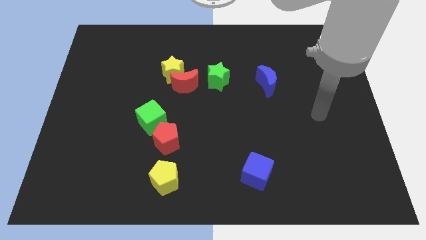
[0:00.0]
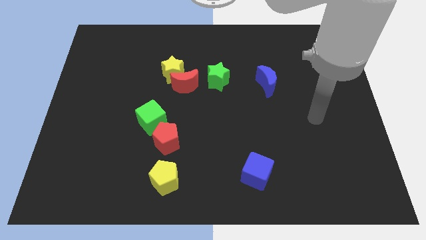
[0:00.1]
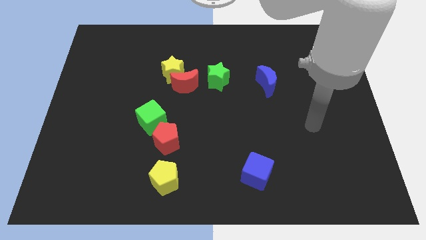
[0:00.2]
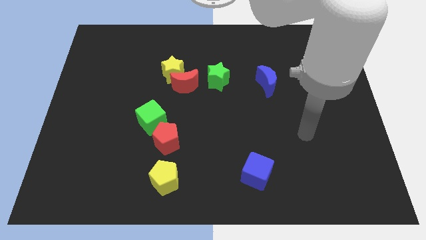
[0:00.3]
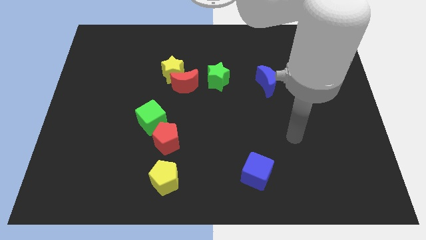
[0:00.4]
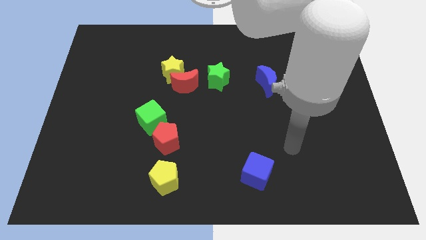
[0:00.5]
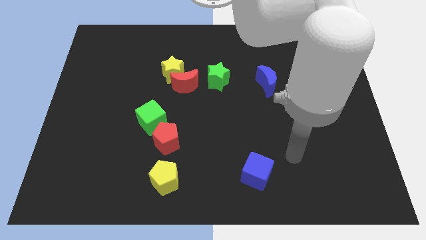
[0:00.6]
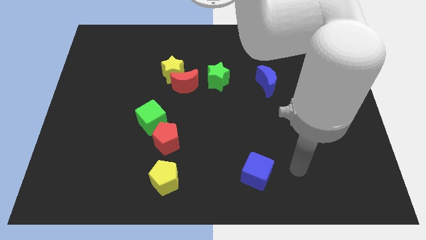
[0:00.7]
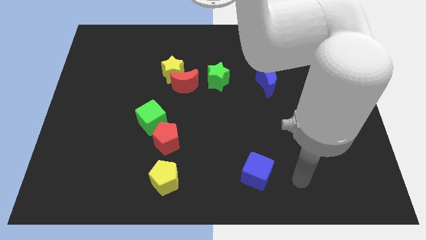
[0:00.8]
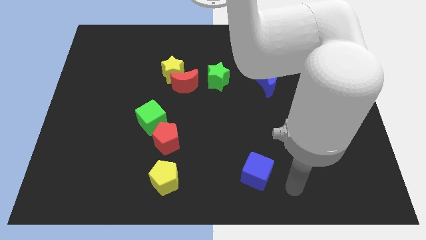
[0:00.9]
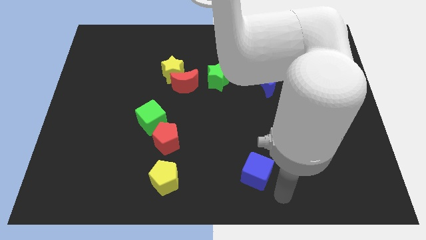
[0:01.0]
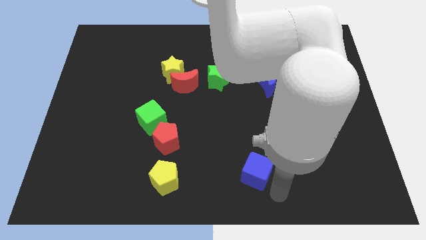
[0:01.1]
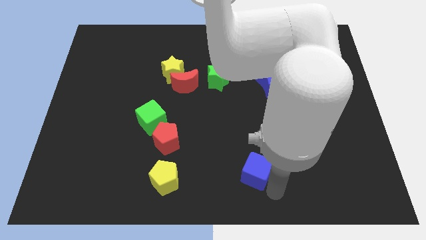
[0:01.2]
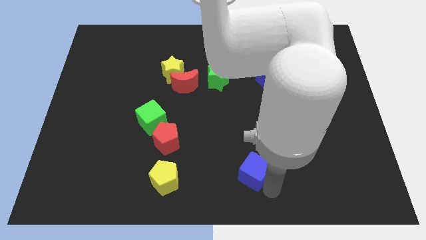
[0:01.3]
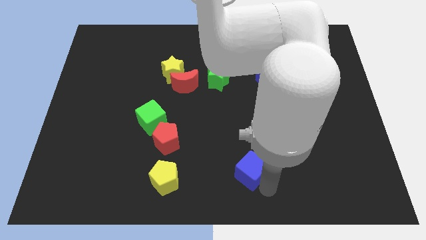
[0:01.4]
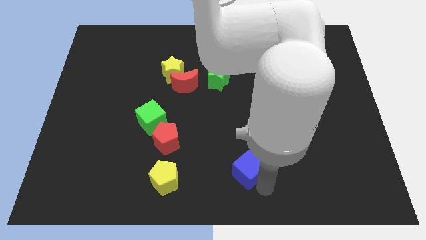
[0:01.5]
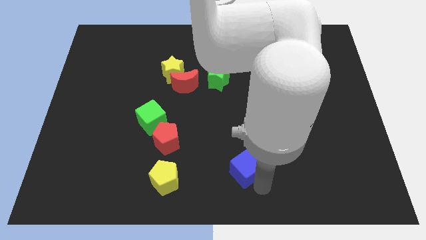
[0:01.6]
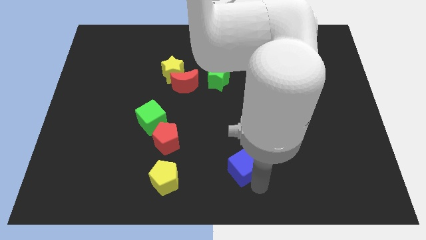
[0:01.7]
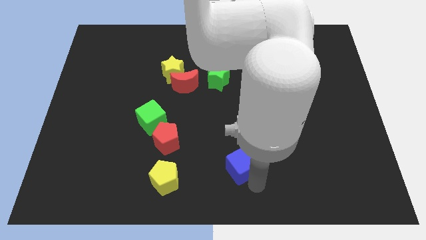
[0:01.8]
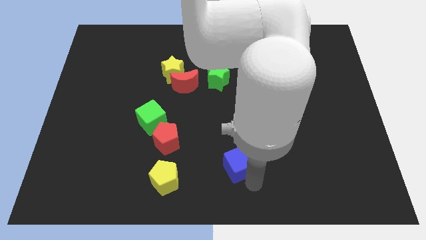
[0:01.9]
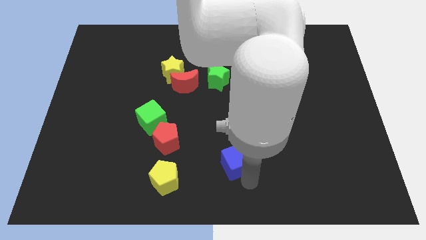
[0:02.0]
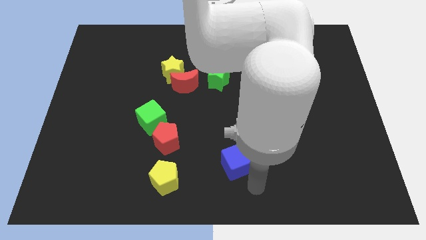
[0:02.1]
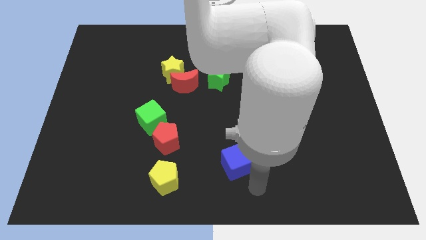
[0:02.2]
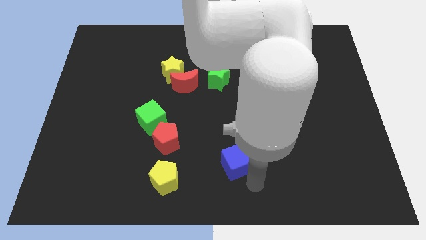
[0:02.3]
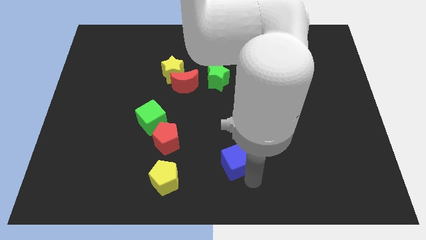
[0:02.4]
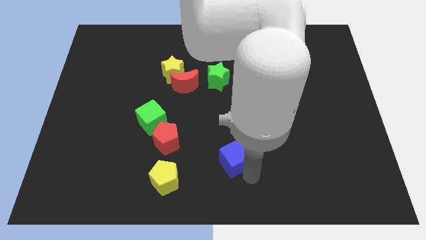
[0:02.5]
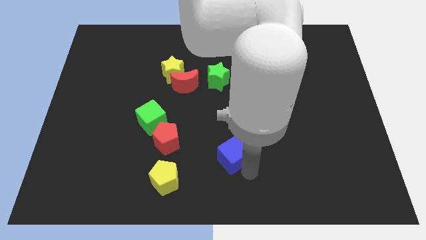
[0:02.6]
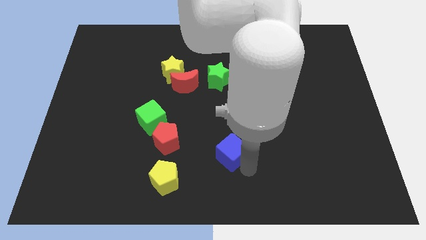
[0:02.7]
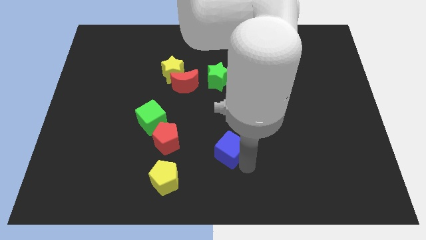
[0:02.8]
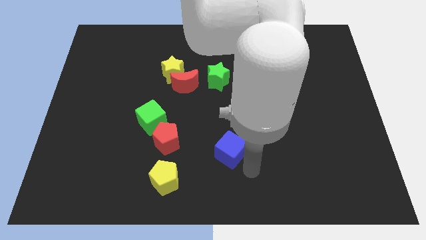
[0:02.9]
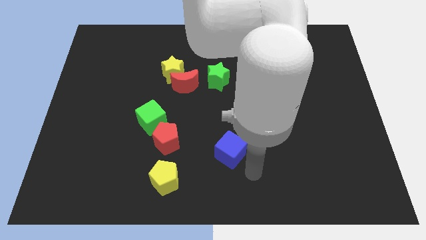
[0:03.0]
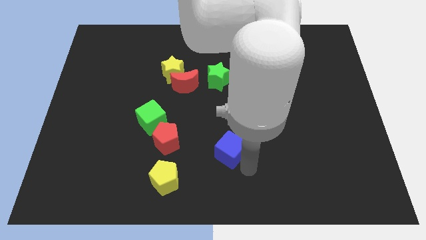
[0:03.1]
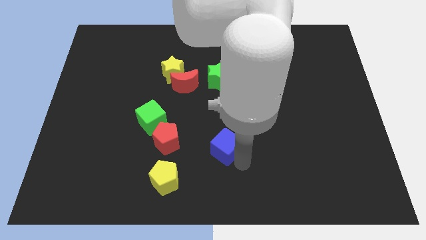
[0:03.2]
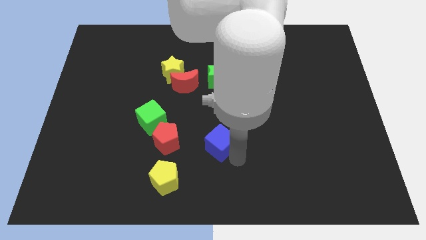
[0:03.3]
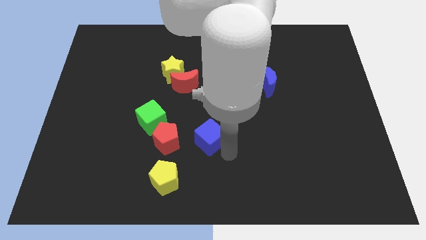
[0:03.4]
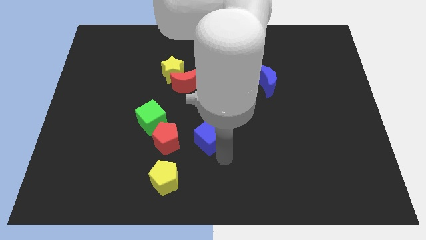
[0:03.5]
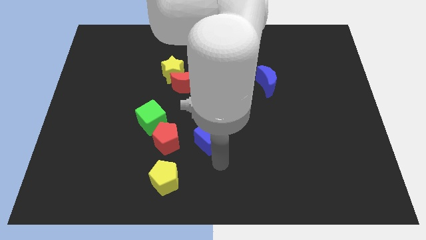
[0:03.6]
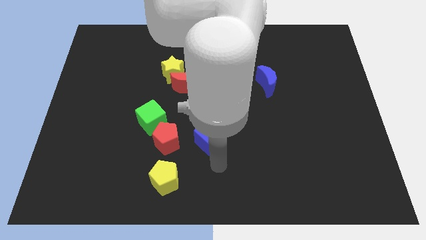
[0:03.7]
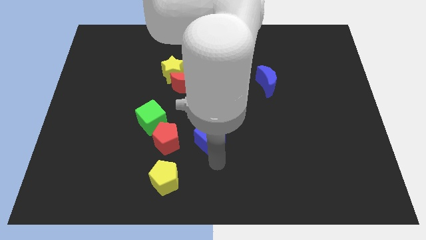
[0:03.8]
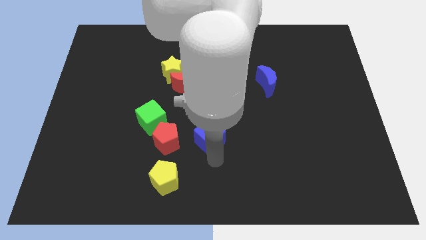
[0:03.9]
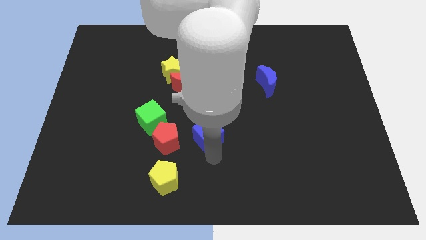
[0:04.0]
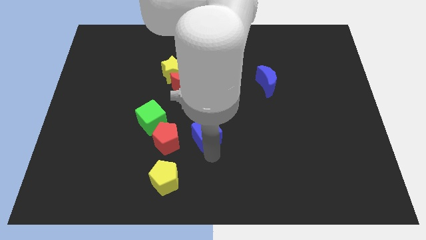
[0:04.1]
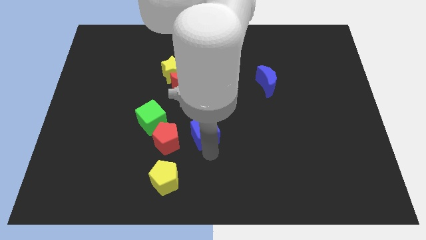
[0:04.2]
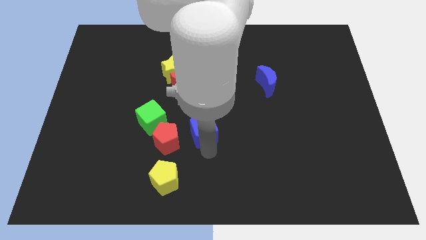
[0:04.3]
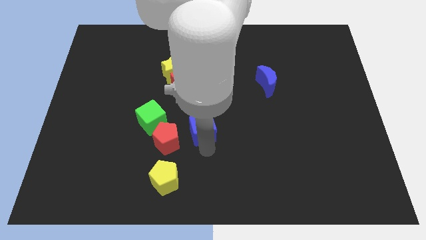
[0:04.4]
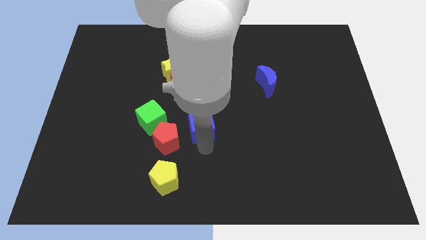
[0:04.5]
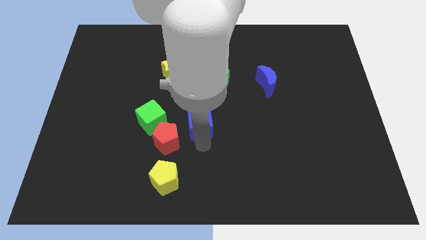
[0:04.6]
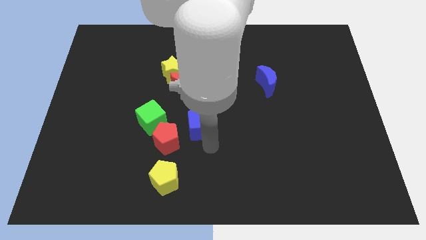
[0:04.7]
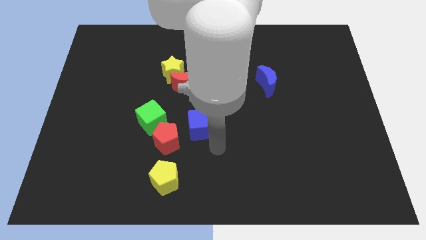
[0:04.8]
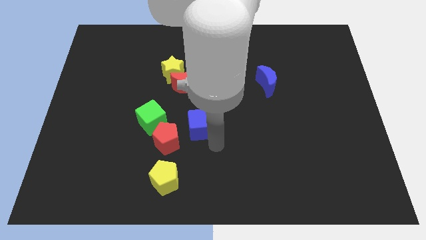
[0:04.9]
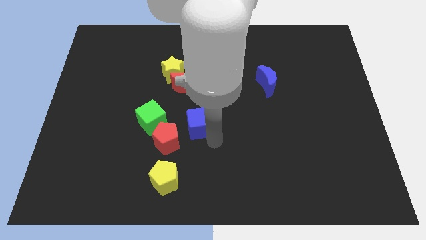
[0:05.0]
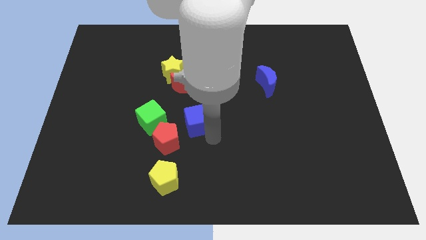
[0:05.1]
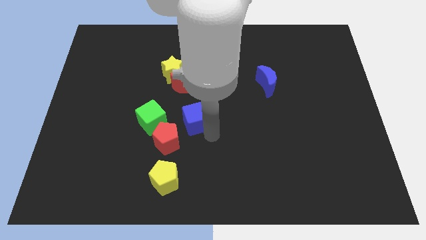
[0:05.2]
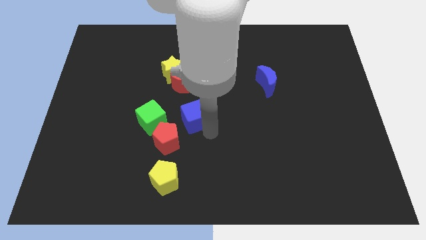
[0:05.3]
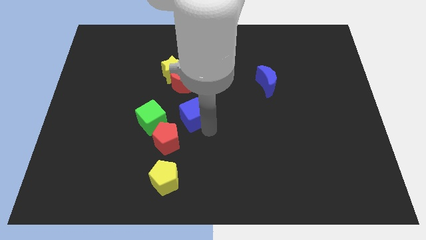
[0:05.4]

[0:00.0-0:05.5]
slide the blue cube upwards and to the left

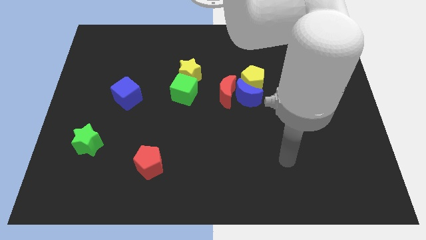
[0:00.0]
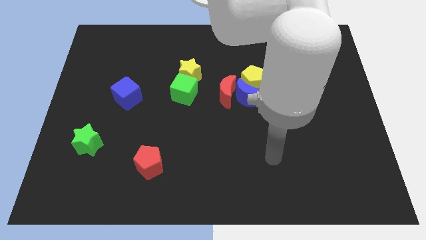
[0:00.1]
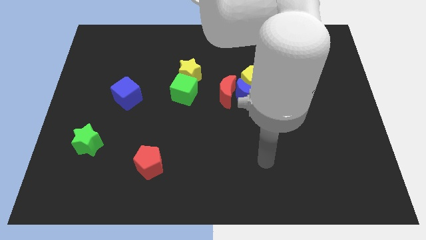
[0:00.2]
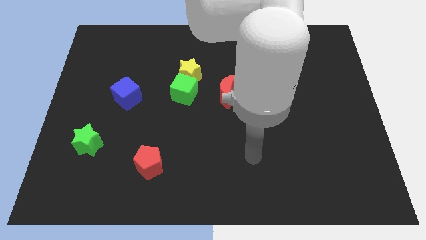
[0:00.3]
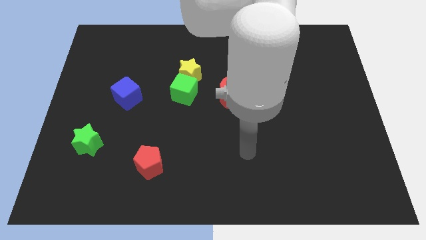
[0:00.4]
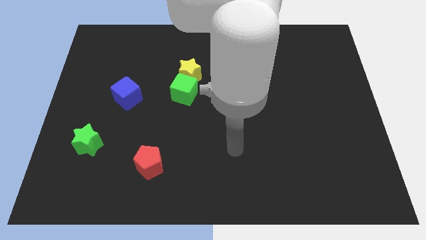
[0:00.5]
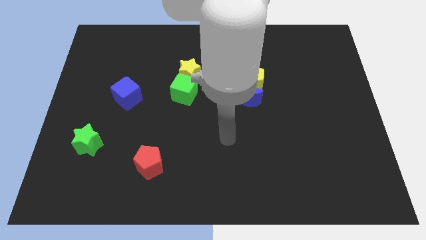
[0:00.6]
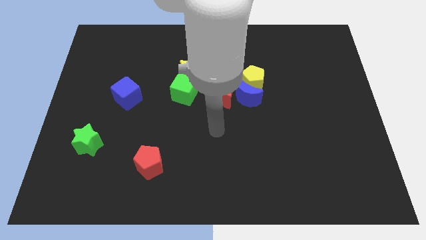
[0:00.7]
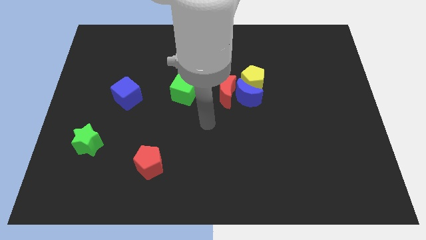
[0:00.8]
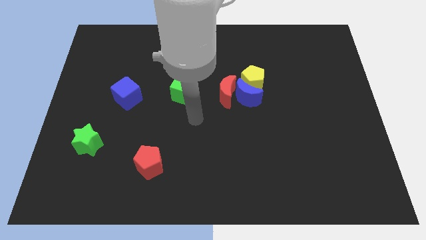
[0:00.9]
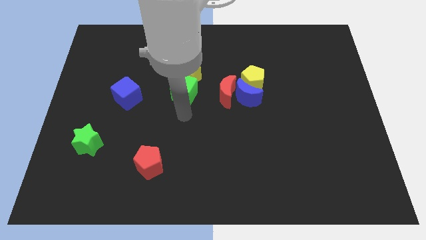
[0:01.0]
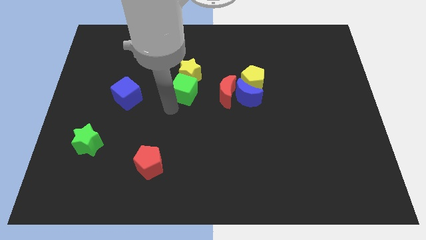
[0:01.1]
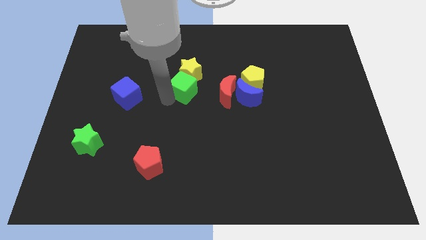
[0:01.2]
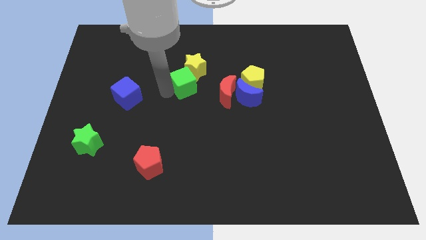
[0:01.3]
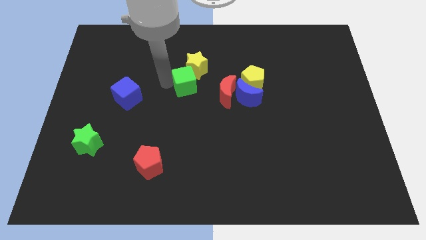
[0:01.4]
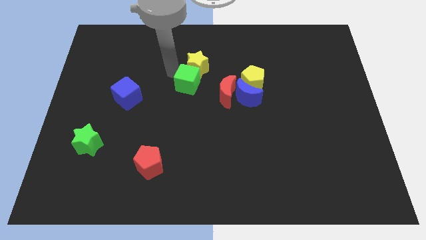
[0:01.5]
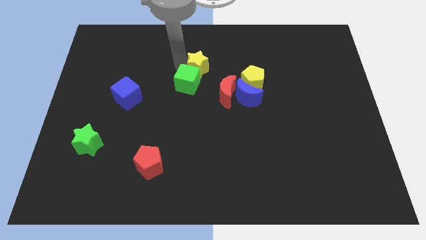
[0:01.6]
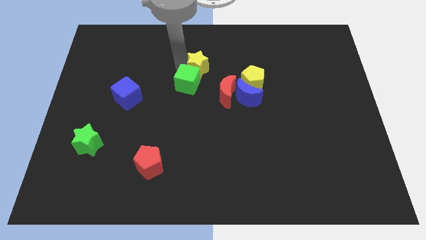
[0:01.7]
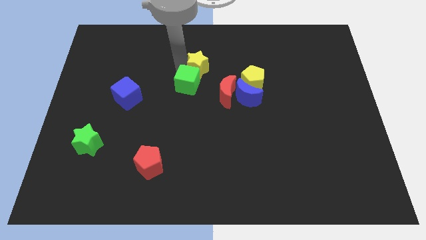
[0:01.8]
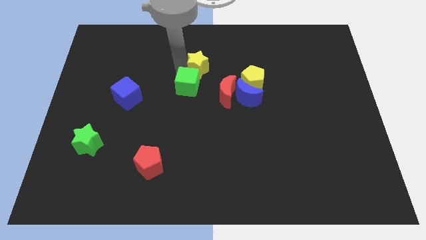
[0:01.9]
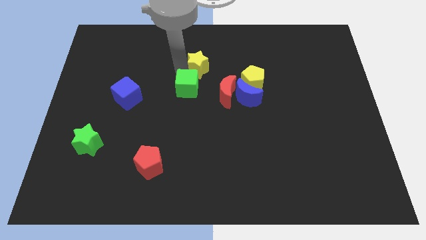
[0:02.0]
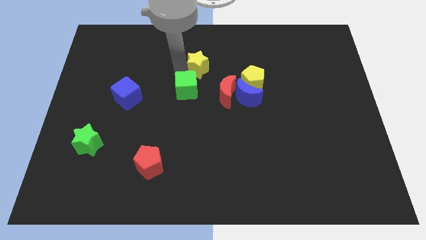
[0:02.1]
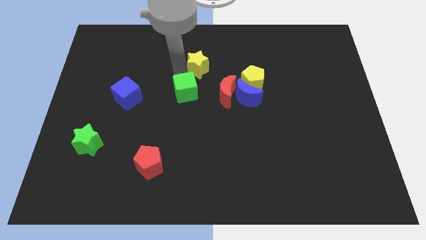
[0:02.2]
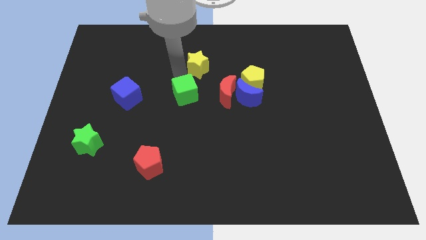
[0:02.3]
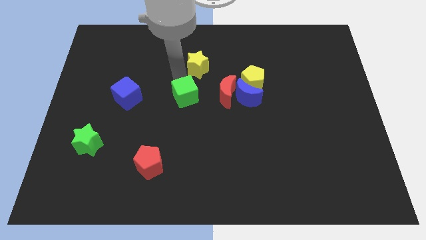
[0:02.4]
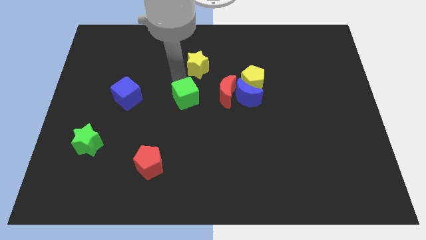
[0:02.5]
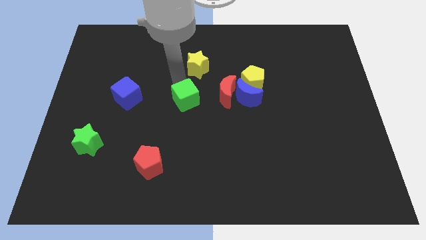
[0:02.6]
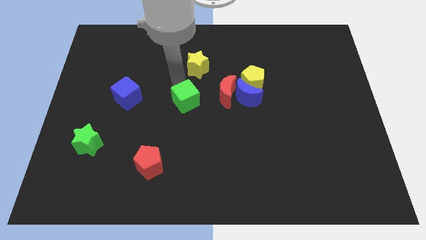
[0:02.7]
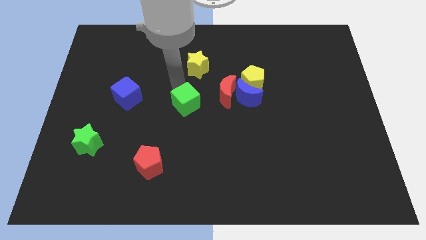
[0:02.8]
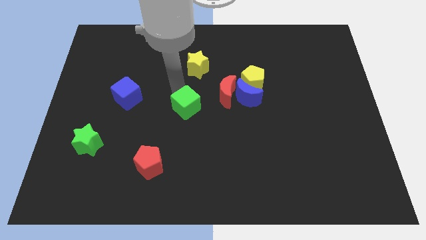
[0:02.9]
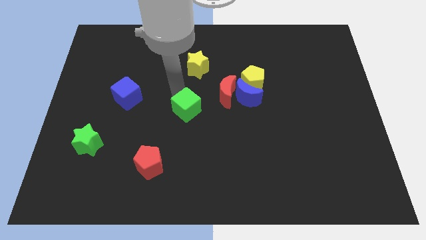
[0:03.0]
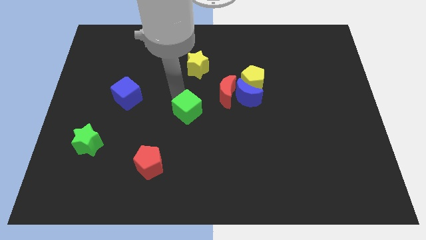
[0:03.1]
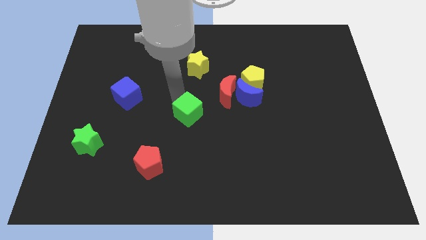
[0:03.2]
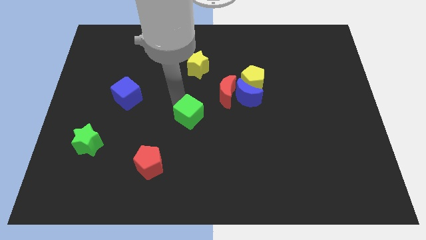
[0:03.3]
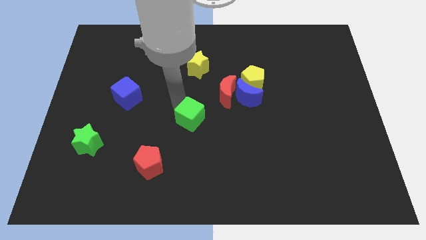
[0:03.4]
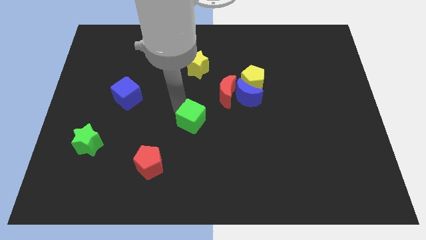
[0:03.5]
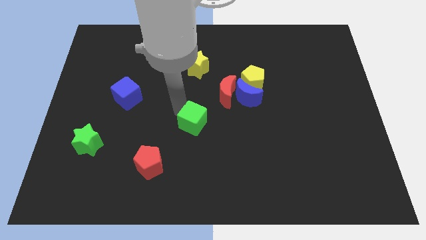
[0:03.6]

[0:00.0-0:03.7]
push the green cube downwards and then right a little bit
